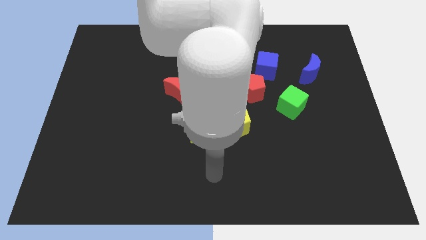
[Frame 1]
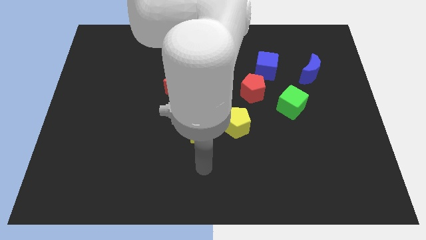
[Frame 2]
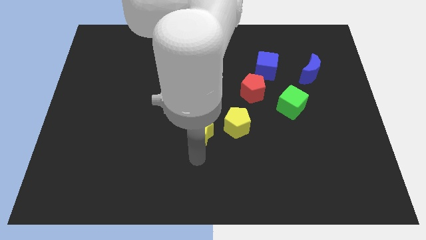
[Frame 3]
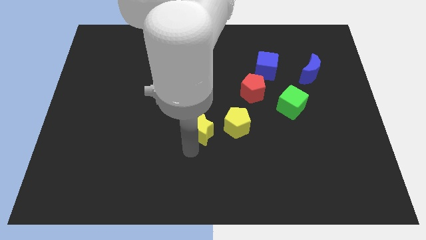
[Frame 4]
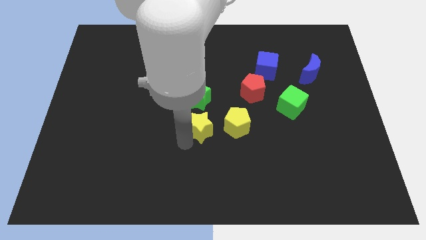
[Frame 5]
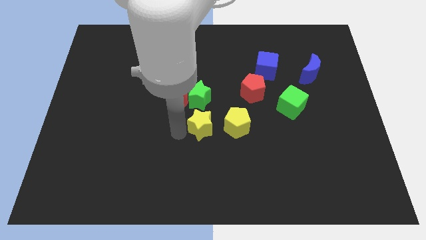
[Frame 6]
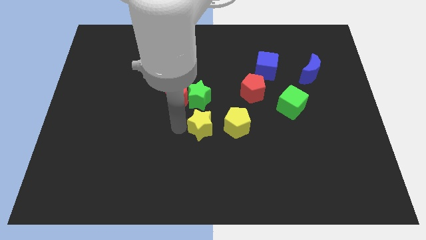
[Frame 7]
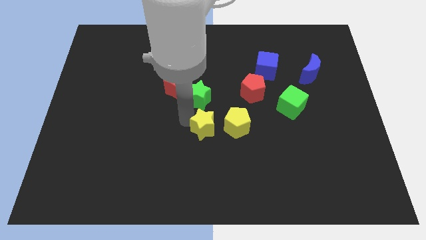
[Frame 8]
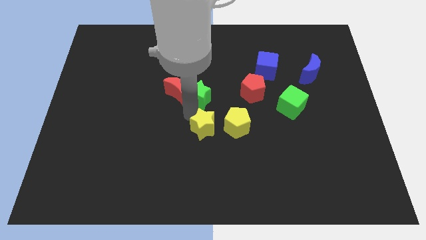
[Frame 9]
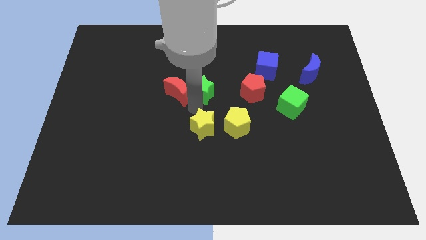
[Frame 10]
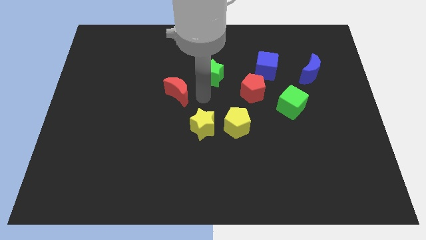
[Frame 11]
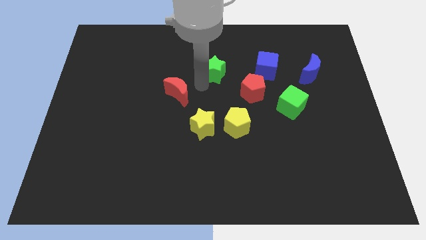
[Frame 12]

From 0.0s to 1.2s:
pull the red moon apart from the green star

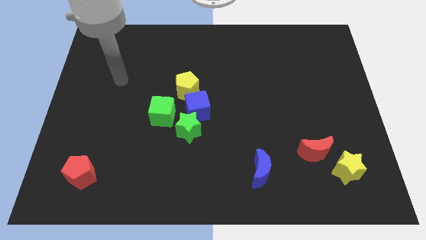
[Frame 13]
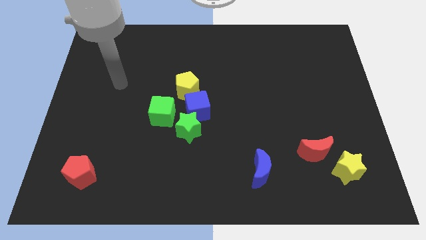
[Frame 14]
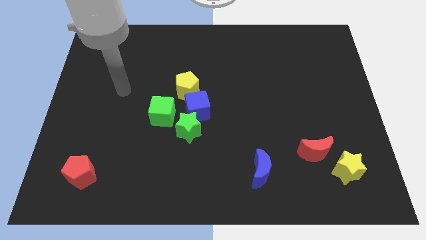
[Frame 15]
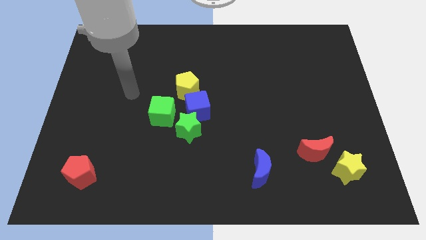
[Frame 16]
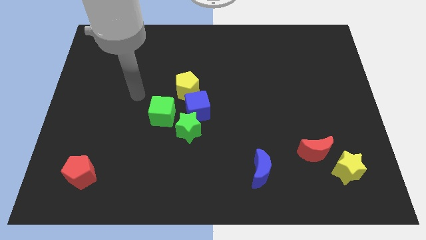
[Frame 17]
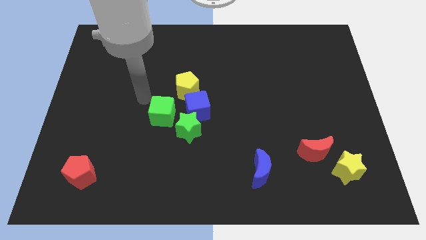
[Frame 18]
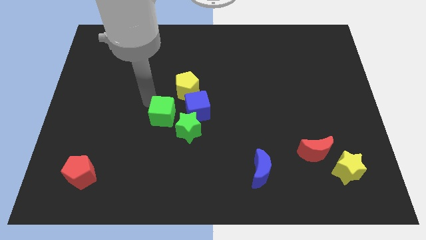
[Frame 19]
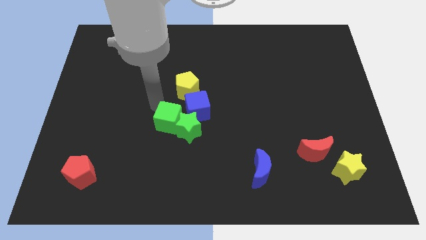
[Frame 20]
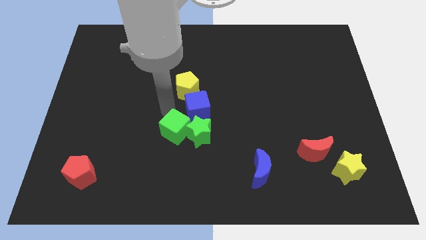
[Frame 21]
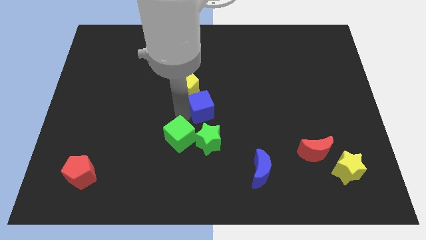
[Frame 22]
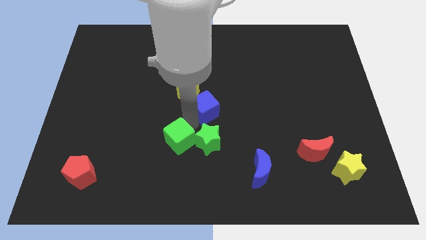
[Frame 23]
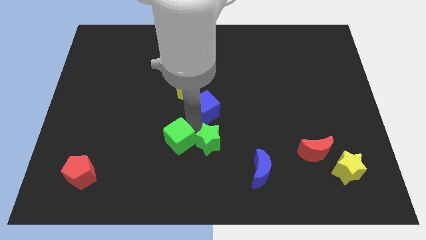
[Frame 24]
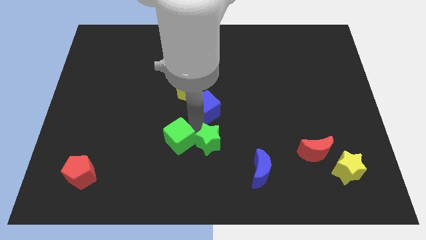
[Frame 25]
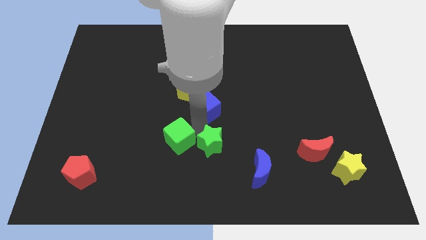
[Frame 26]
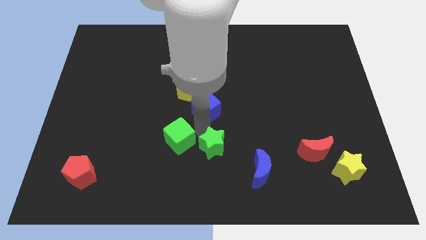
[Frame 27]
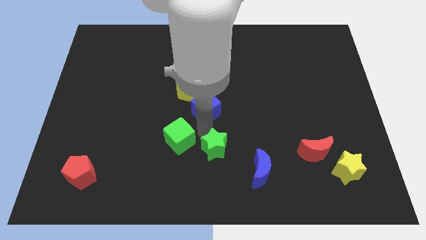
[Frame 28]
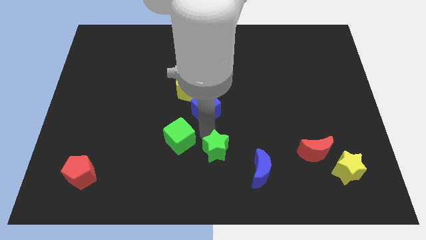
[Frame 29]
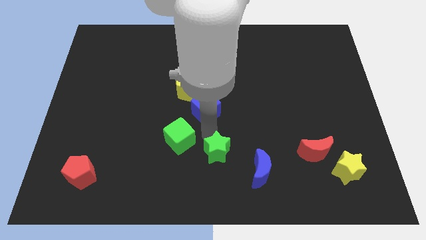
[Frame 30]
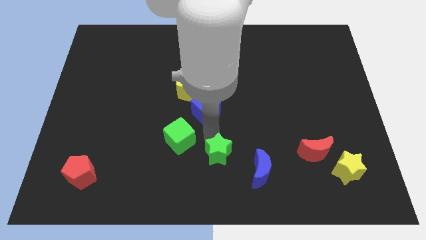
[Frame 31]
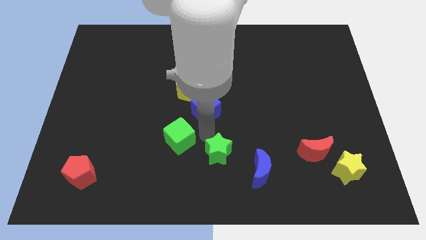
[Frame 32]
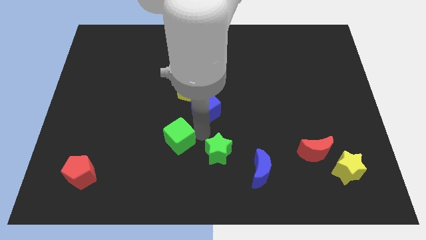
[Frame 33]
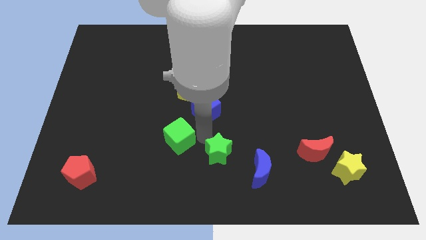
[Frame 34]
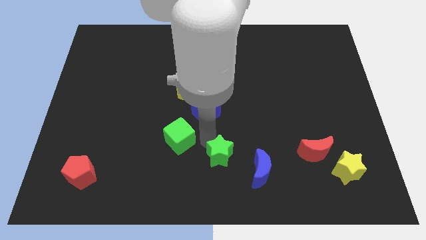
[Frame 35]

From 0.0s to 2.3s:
separate the green star from the blue cube and green cube

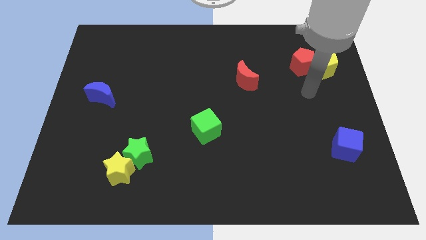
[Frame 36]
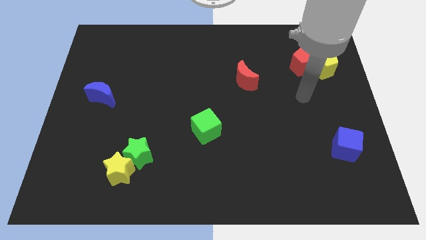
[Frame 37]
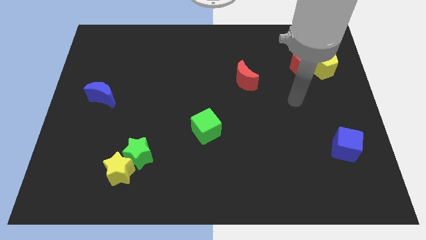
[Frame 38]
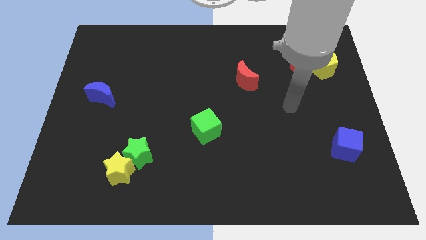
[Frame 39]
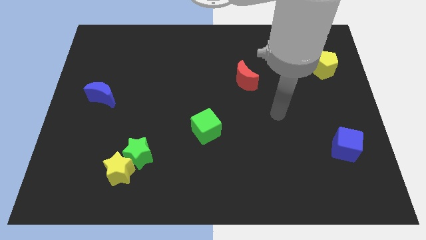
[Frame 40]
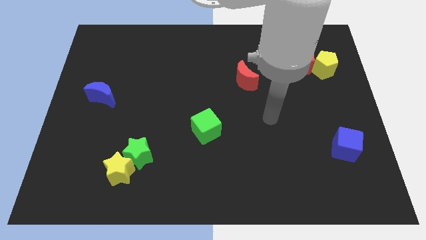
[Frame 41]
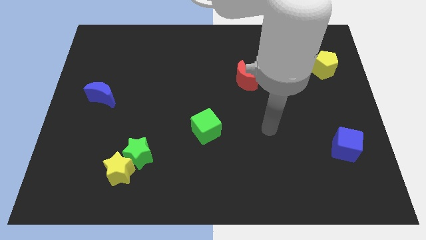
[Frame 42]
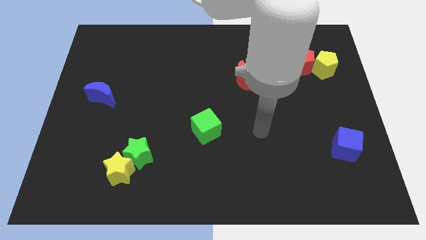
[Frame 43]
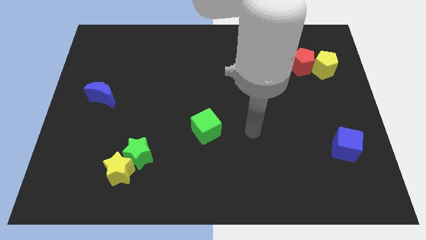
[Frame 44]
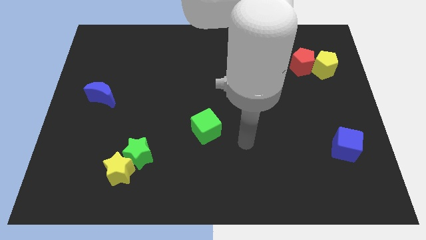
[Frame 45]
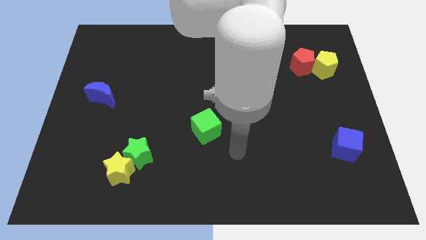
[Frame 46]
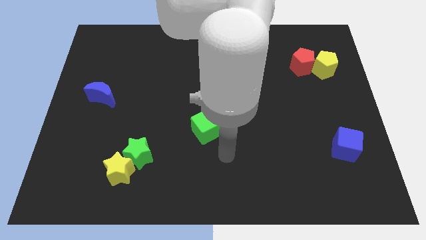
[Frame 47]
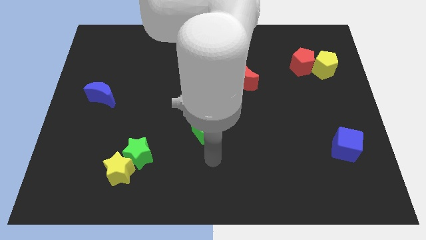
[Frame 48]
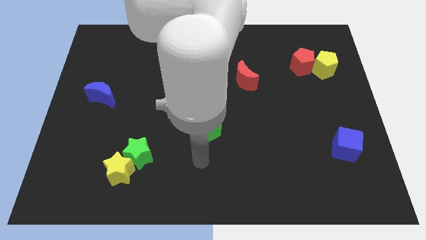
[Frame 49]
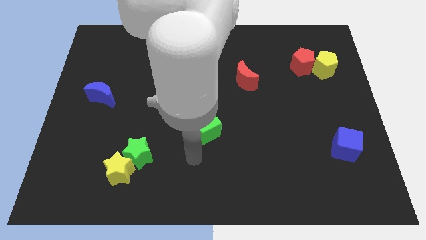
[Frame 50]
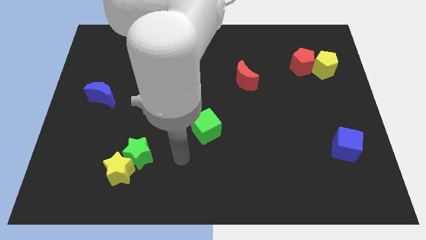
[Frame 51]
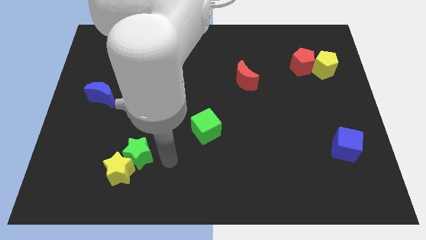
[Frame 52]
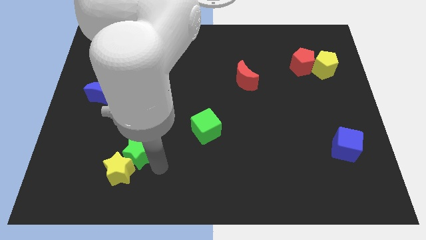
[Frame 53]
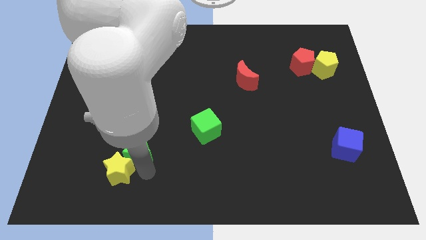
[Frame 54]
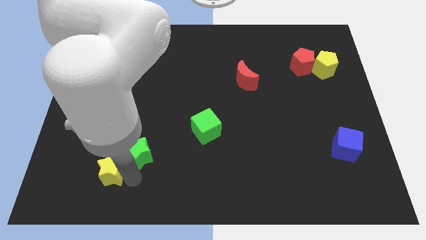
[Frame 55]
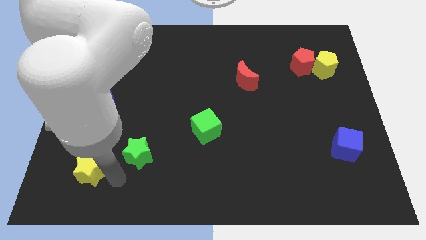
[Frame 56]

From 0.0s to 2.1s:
move the green star away from the yellow star

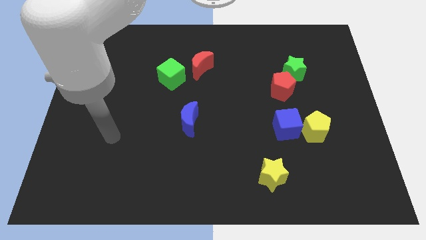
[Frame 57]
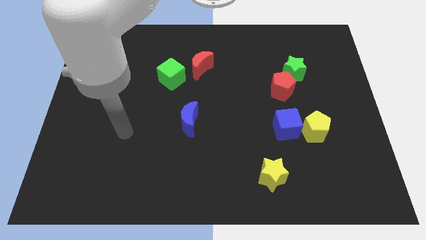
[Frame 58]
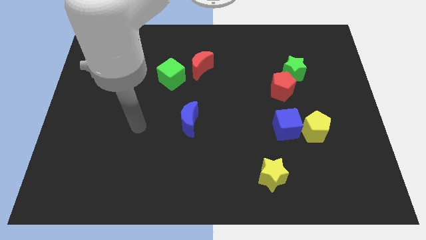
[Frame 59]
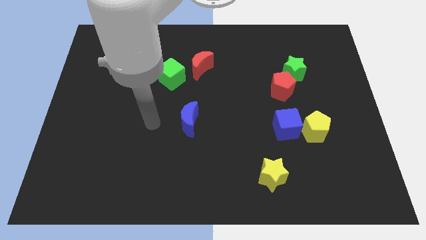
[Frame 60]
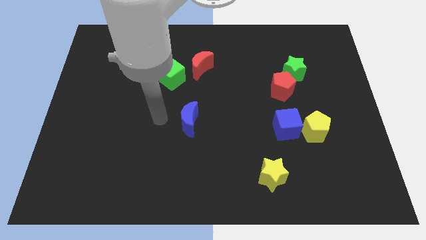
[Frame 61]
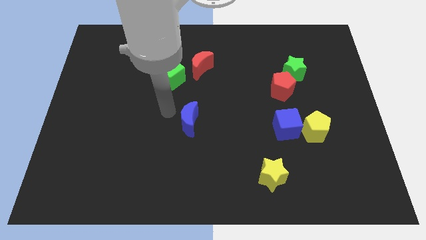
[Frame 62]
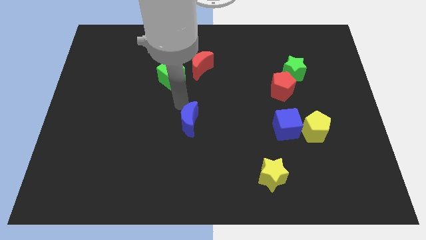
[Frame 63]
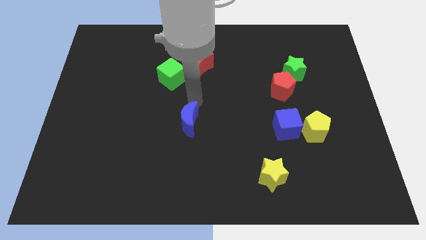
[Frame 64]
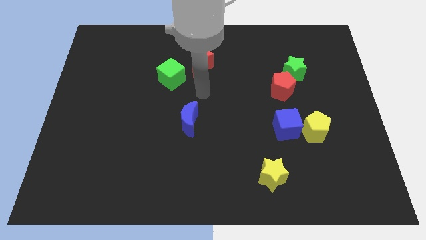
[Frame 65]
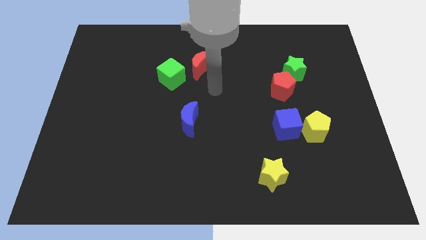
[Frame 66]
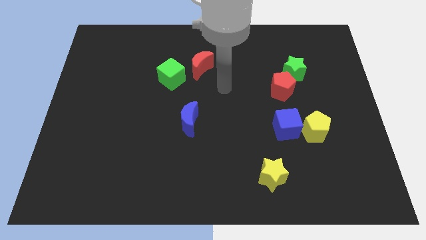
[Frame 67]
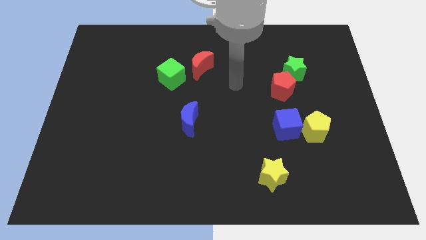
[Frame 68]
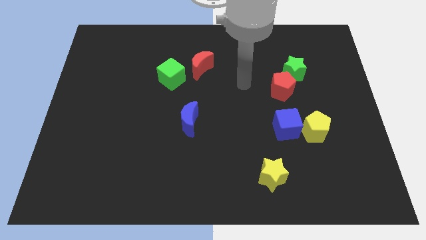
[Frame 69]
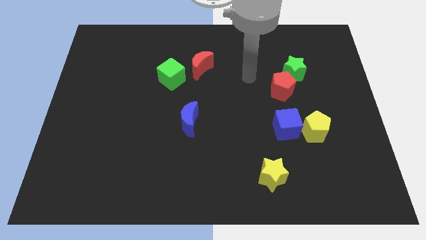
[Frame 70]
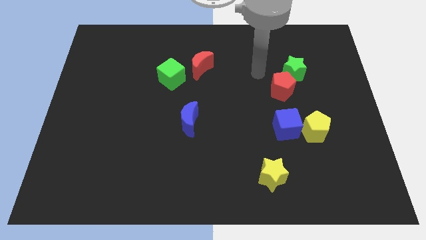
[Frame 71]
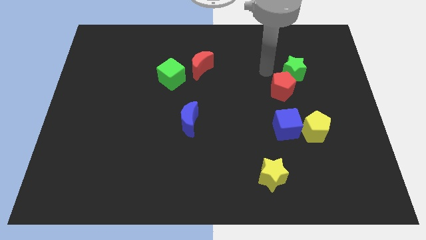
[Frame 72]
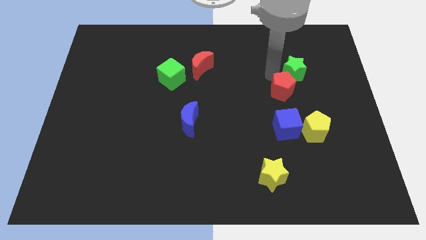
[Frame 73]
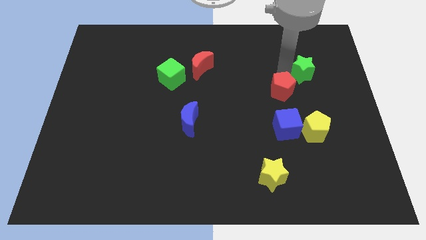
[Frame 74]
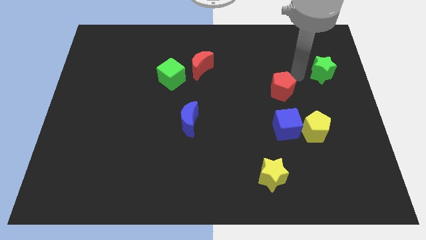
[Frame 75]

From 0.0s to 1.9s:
move the red pentagon away from the green star

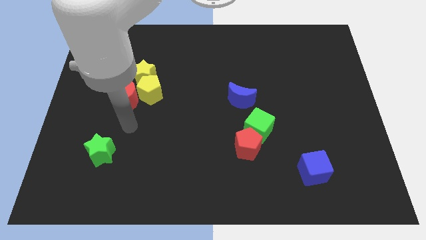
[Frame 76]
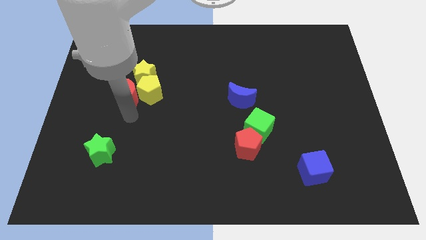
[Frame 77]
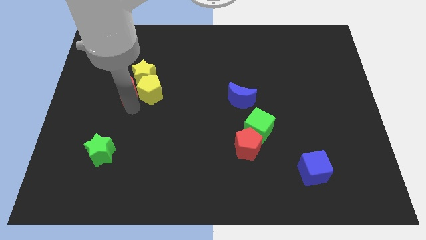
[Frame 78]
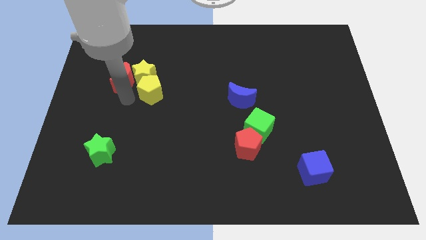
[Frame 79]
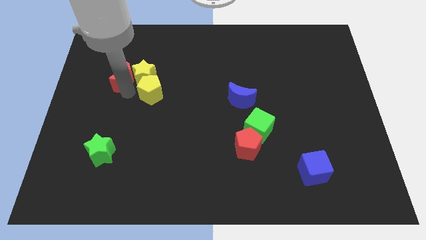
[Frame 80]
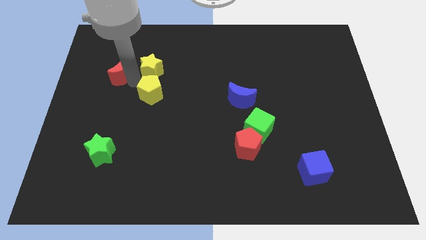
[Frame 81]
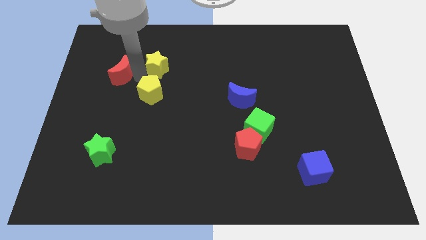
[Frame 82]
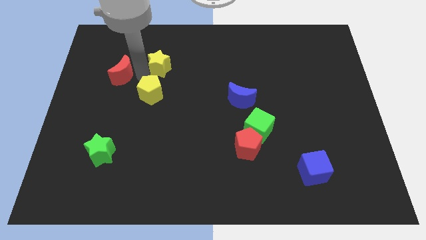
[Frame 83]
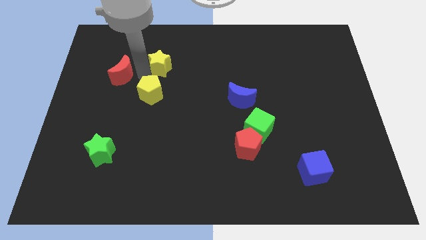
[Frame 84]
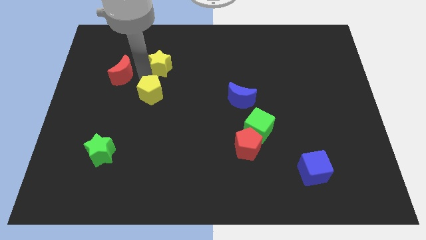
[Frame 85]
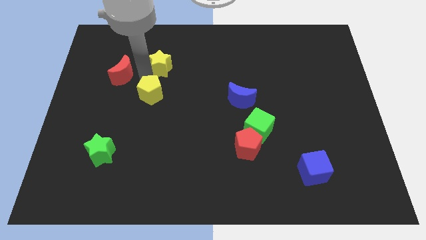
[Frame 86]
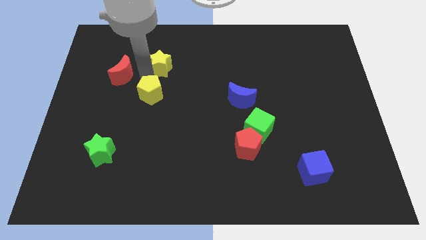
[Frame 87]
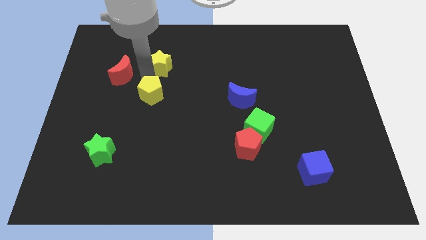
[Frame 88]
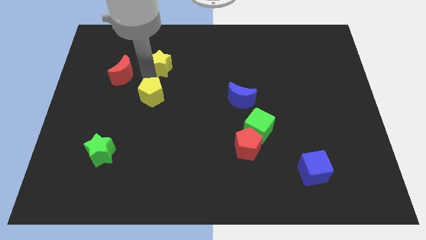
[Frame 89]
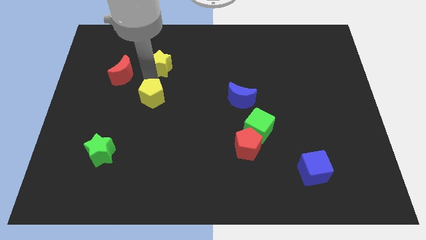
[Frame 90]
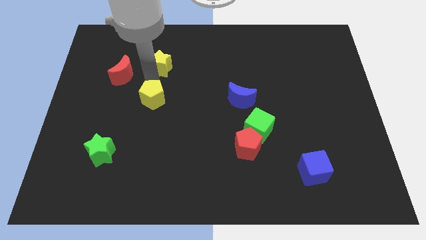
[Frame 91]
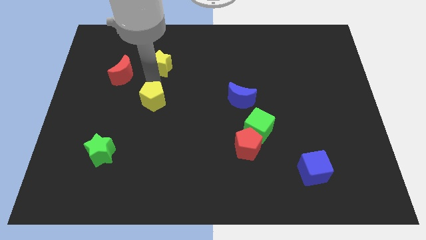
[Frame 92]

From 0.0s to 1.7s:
pull the yellow pentagon apart from the red moon and yellow star

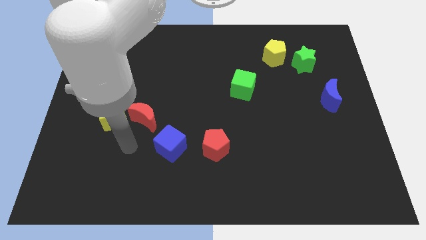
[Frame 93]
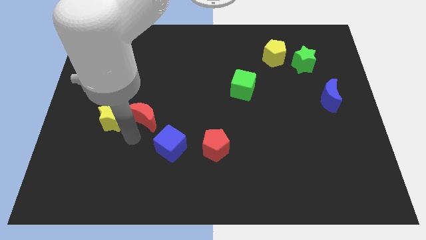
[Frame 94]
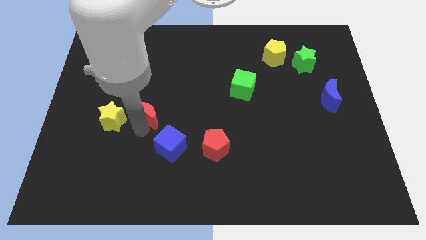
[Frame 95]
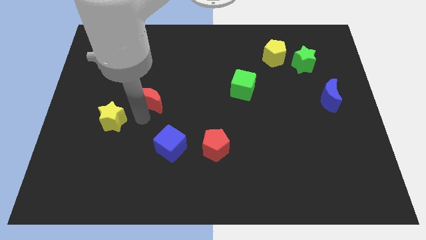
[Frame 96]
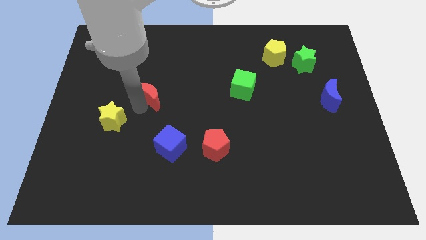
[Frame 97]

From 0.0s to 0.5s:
move the yellow star away from the red moon
